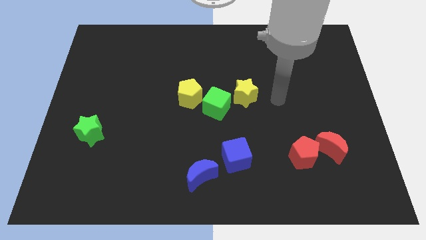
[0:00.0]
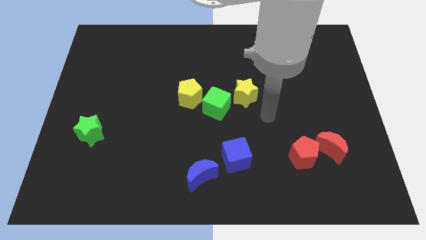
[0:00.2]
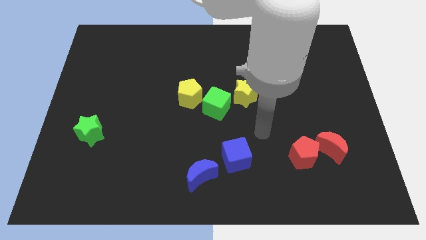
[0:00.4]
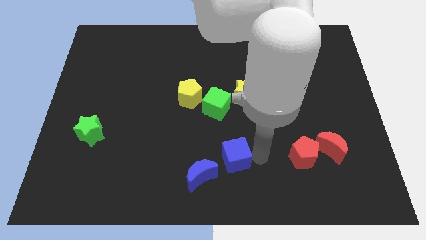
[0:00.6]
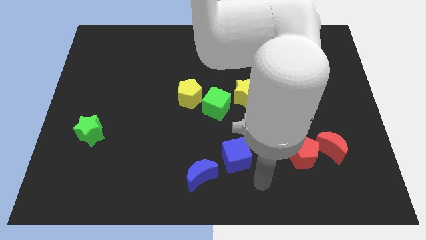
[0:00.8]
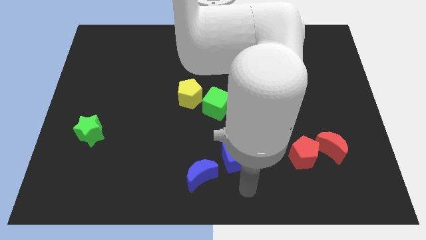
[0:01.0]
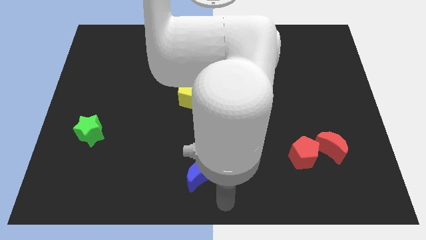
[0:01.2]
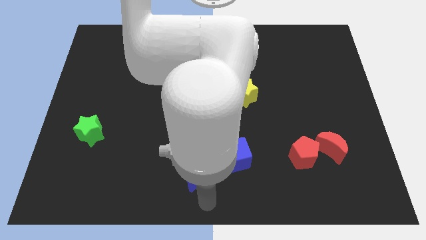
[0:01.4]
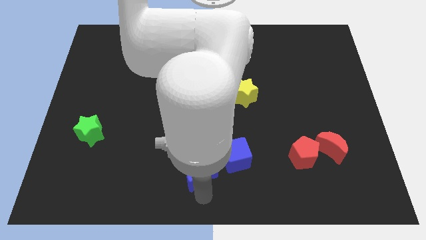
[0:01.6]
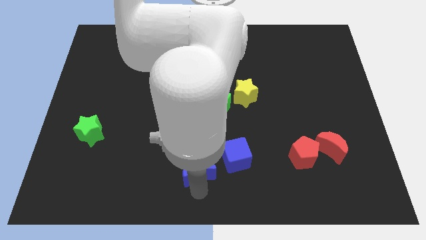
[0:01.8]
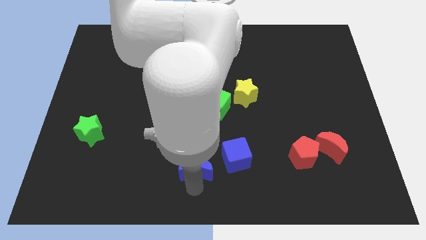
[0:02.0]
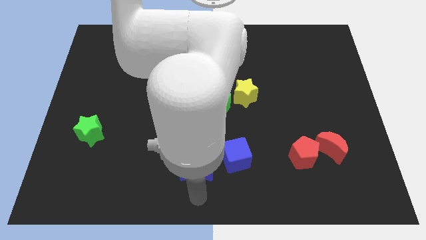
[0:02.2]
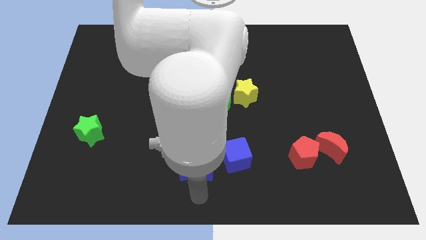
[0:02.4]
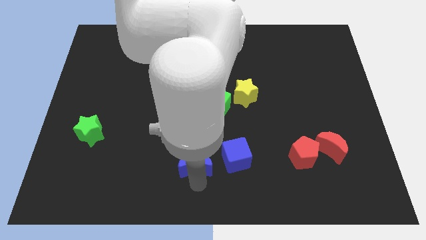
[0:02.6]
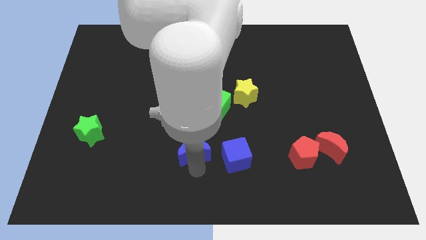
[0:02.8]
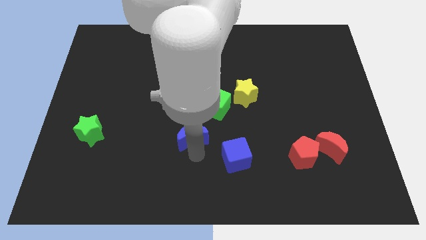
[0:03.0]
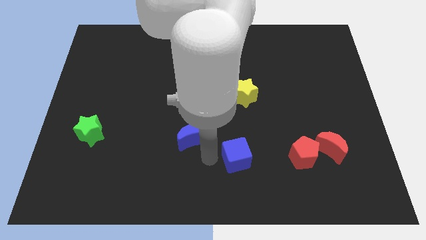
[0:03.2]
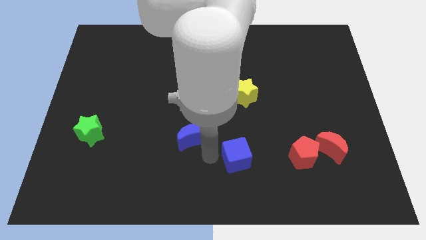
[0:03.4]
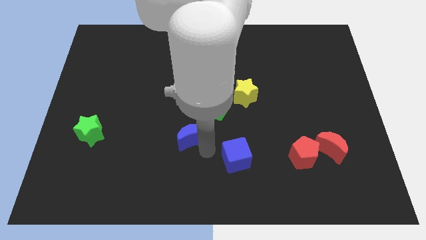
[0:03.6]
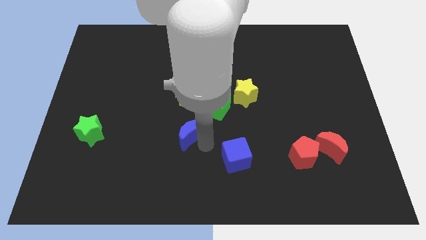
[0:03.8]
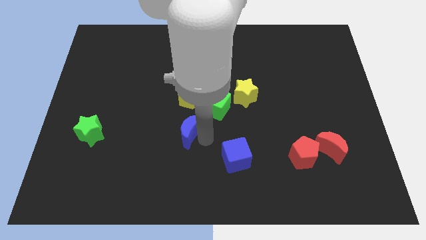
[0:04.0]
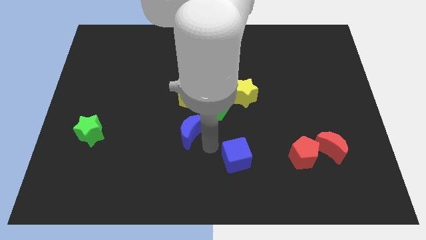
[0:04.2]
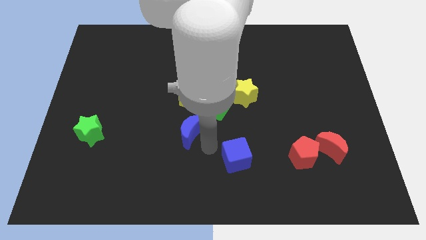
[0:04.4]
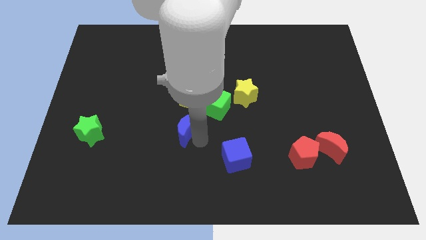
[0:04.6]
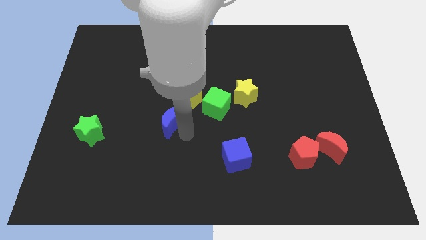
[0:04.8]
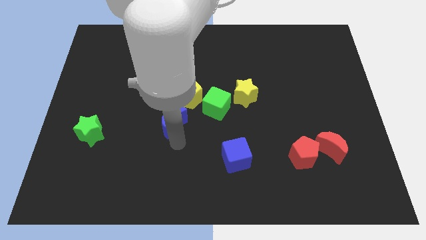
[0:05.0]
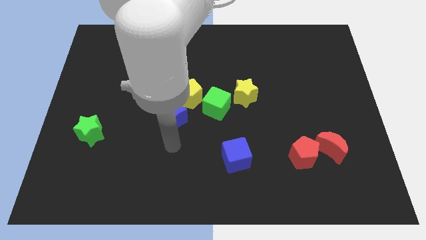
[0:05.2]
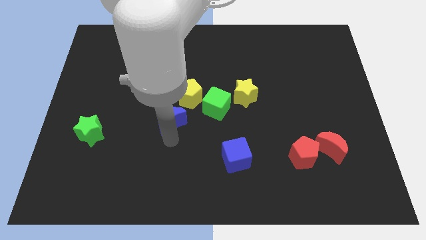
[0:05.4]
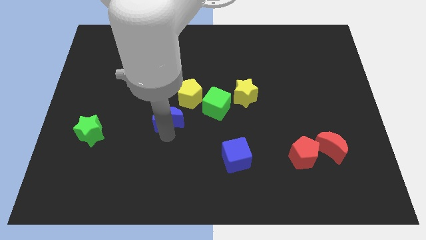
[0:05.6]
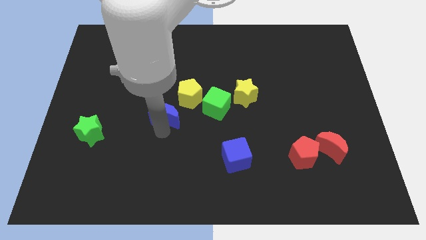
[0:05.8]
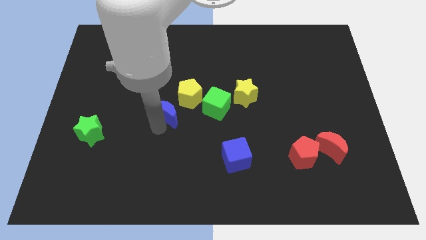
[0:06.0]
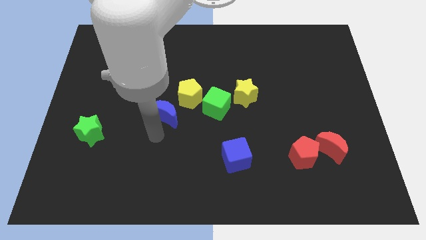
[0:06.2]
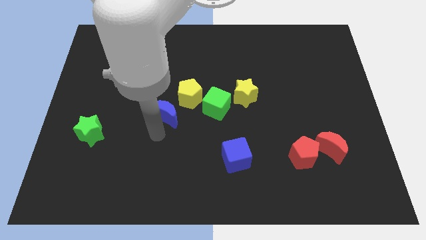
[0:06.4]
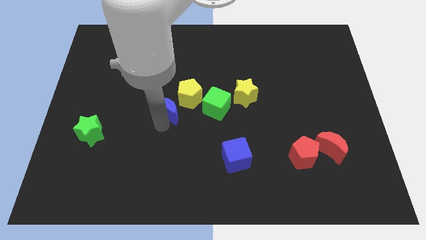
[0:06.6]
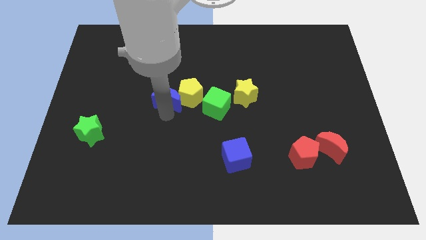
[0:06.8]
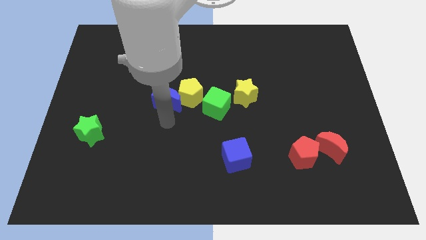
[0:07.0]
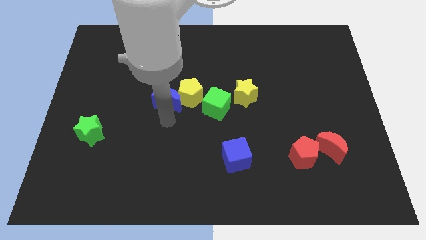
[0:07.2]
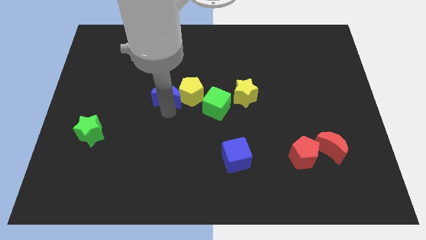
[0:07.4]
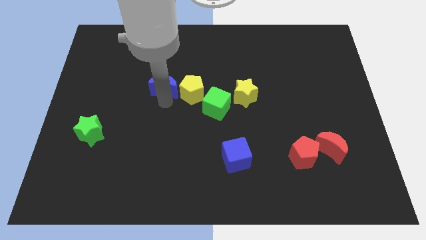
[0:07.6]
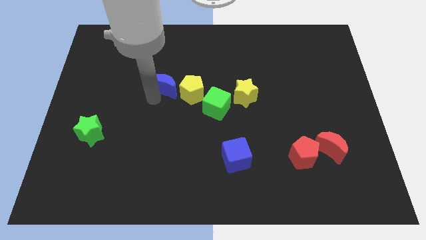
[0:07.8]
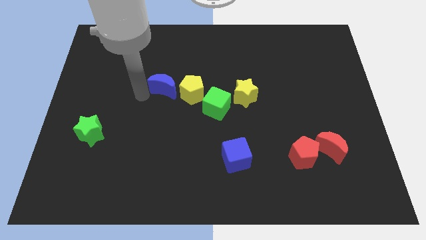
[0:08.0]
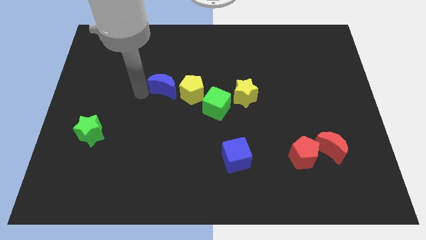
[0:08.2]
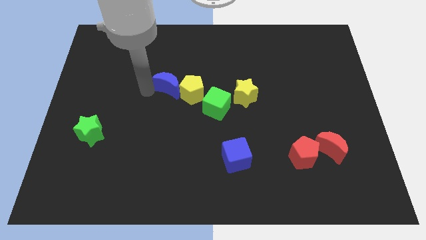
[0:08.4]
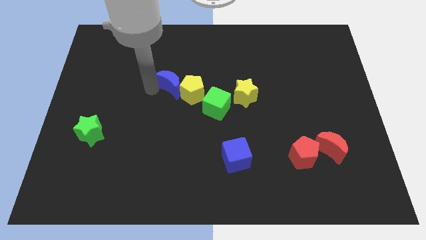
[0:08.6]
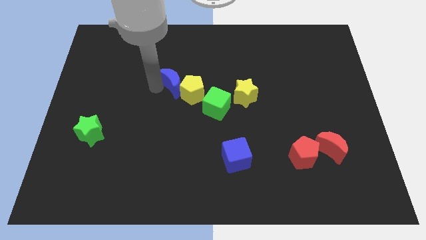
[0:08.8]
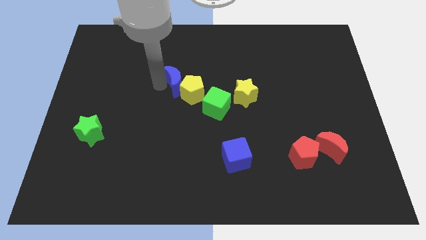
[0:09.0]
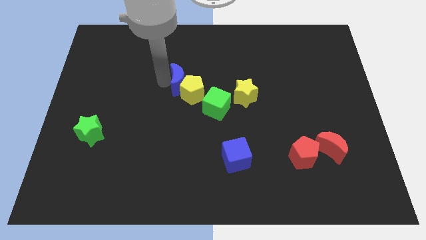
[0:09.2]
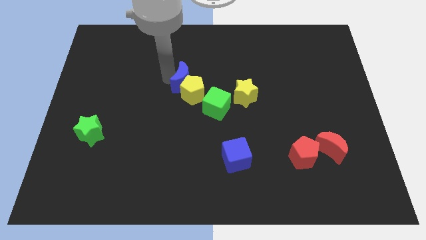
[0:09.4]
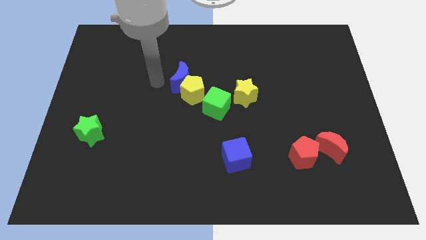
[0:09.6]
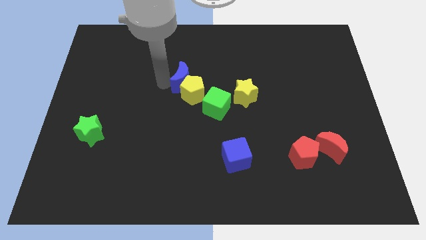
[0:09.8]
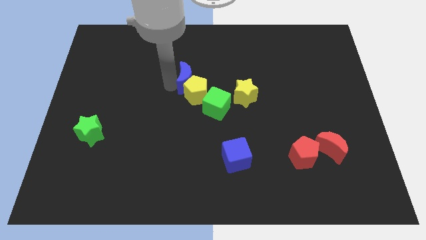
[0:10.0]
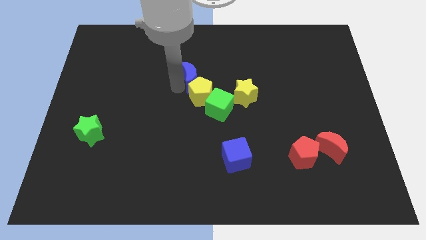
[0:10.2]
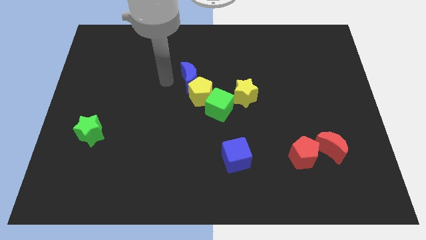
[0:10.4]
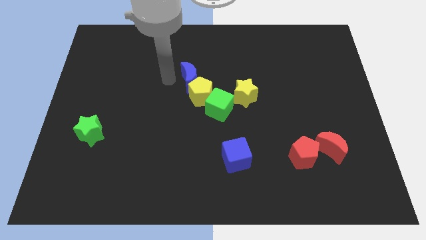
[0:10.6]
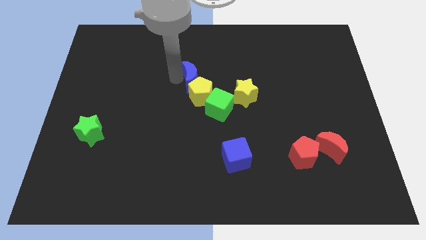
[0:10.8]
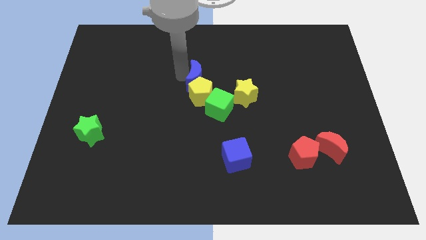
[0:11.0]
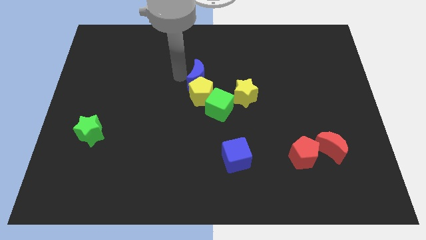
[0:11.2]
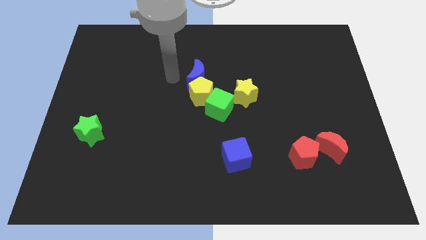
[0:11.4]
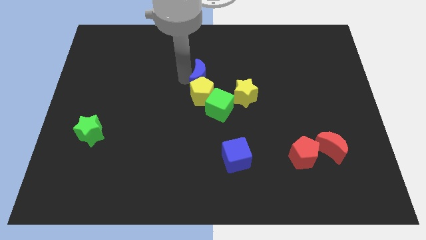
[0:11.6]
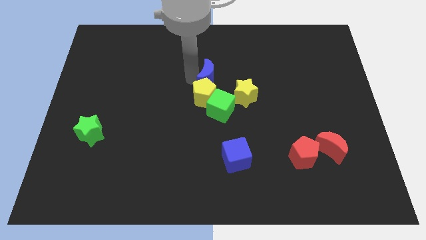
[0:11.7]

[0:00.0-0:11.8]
push the blue moon to the top left of the yellow star

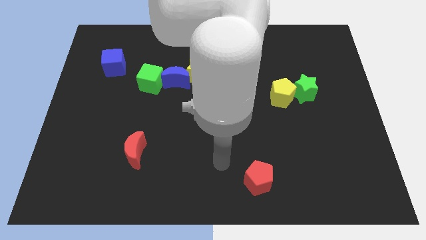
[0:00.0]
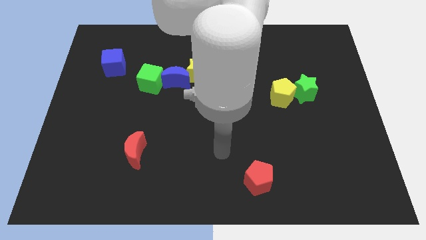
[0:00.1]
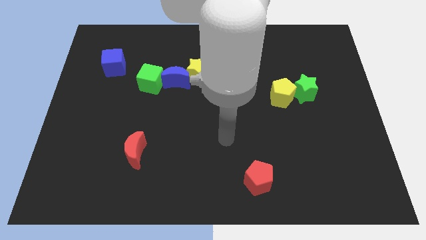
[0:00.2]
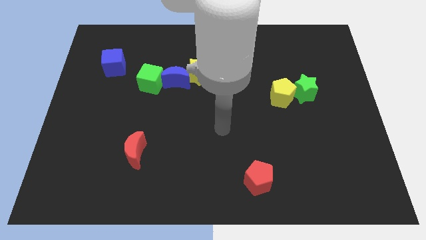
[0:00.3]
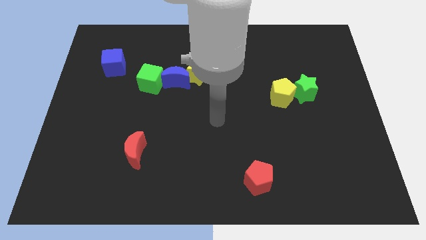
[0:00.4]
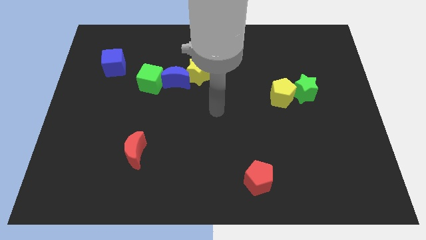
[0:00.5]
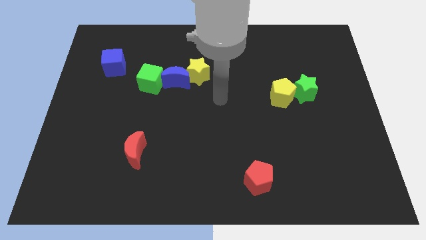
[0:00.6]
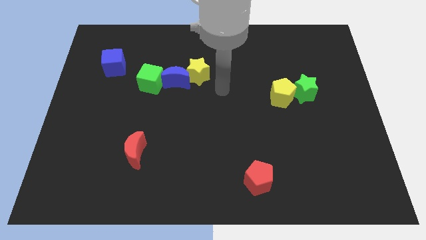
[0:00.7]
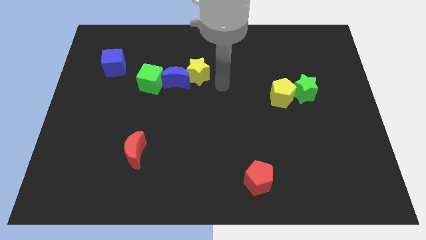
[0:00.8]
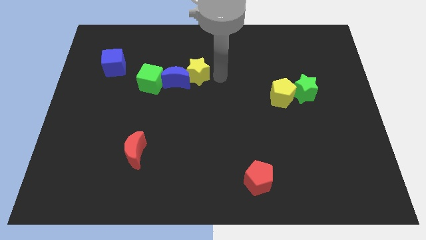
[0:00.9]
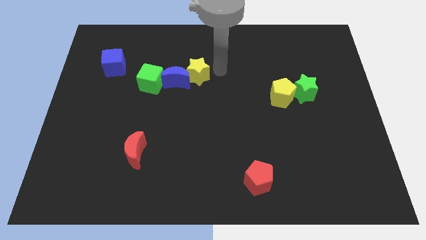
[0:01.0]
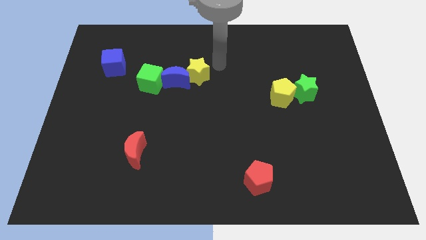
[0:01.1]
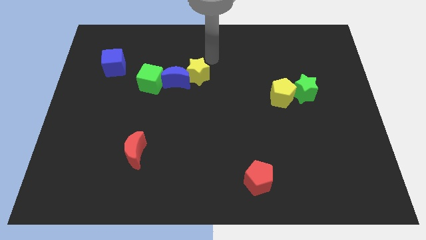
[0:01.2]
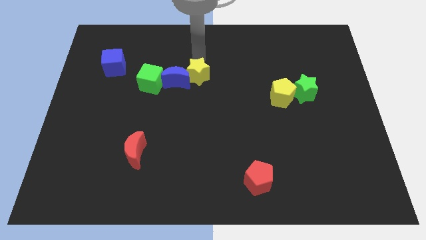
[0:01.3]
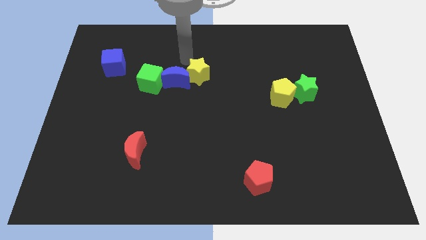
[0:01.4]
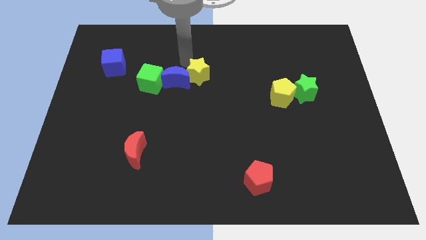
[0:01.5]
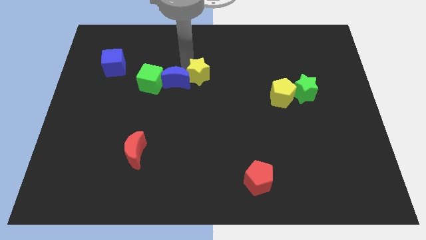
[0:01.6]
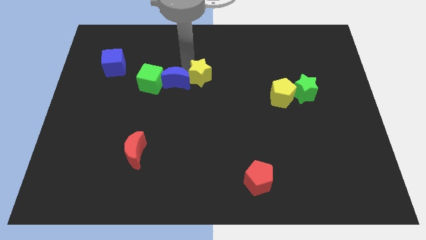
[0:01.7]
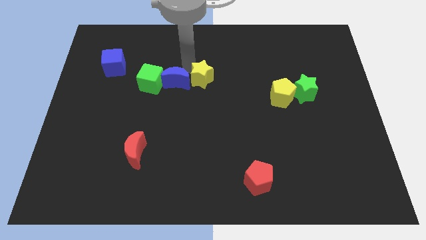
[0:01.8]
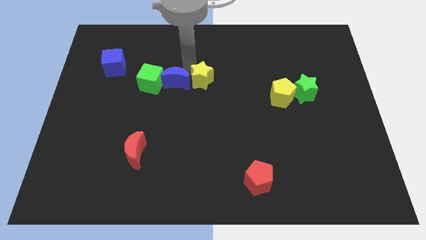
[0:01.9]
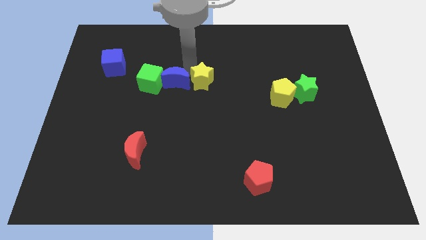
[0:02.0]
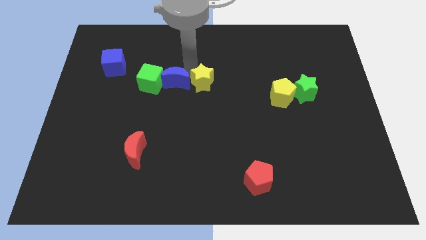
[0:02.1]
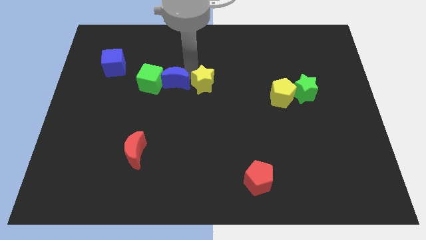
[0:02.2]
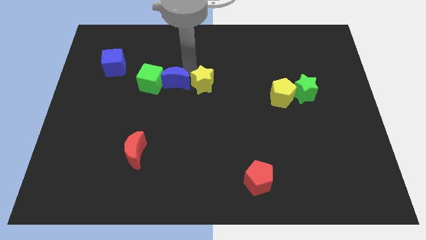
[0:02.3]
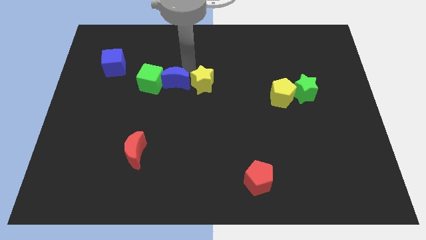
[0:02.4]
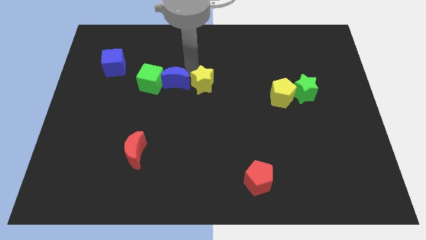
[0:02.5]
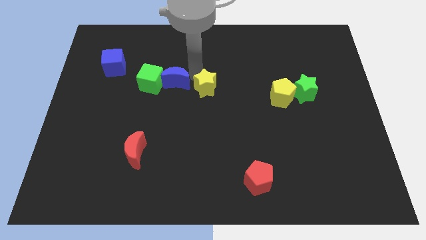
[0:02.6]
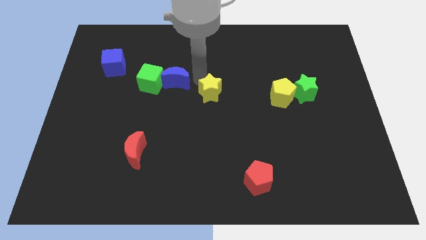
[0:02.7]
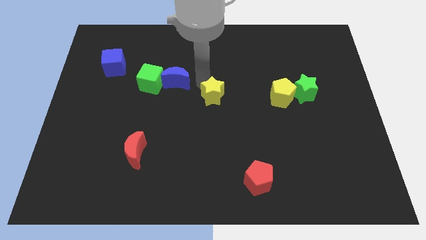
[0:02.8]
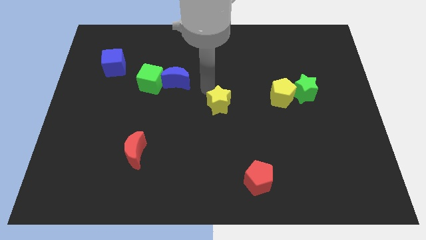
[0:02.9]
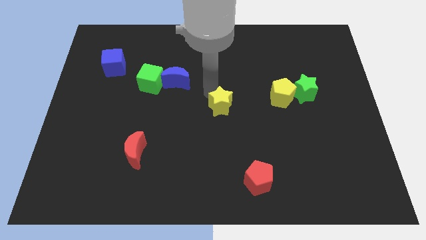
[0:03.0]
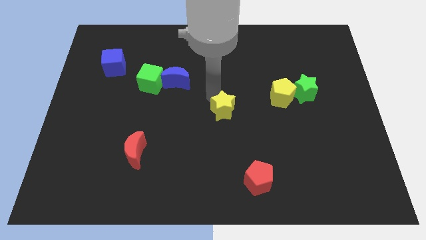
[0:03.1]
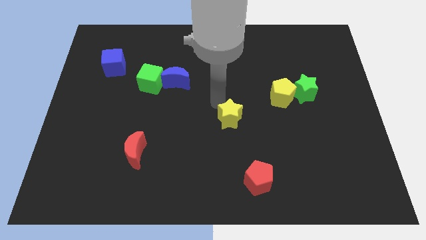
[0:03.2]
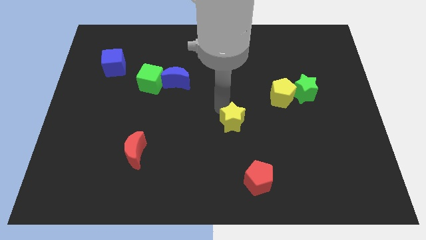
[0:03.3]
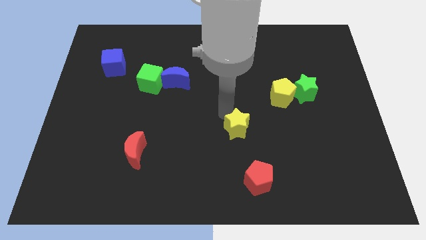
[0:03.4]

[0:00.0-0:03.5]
push the yellow star above the red pentagon
